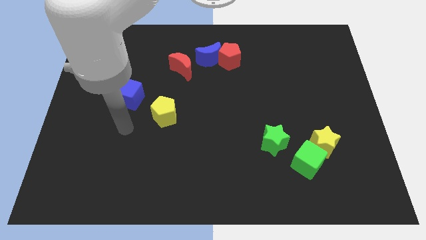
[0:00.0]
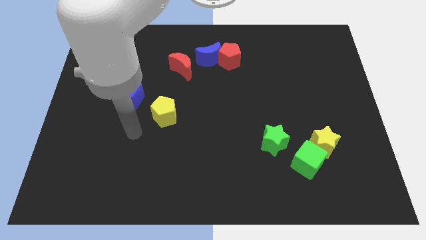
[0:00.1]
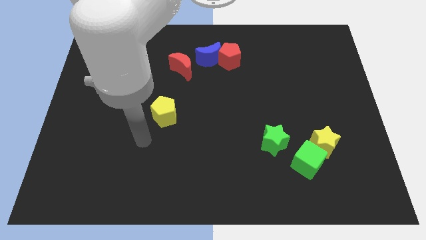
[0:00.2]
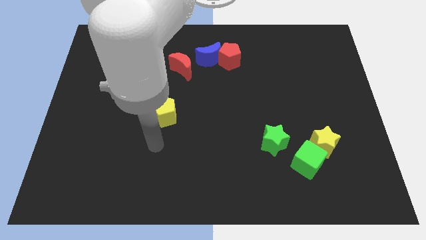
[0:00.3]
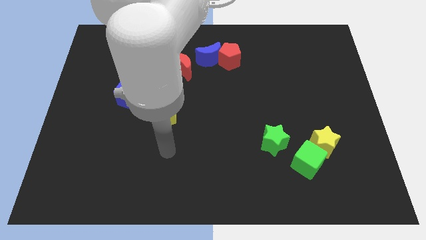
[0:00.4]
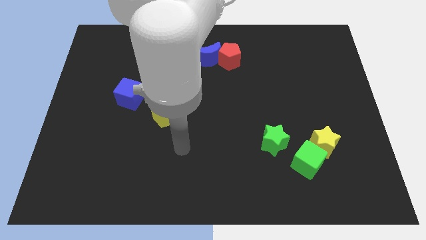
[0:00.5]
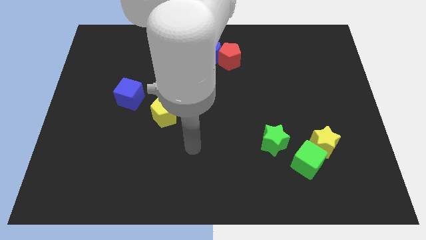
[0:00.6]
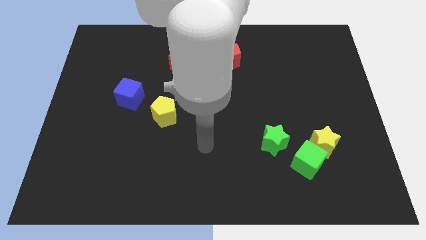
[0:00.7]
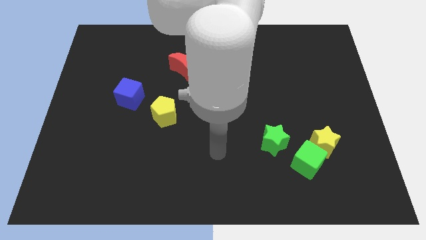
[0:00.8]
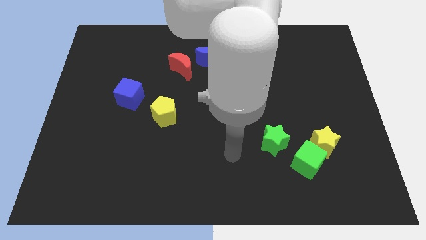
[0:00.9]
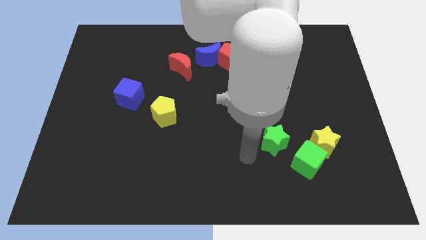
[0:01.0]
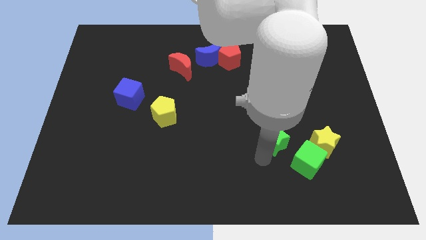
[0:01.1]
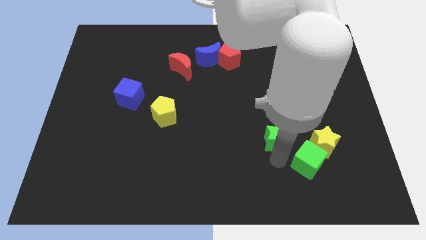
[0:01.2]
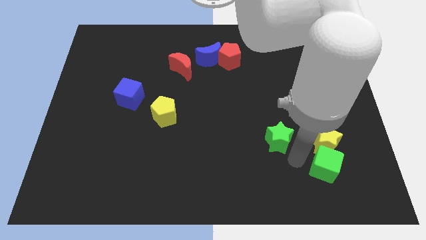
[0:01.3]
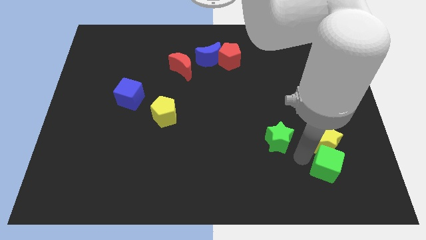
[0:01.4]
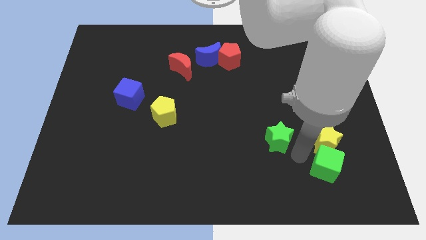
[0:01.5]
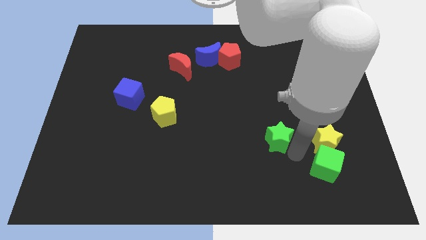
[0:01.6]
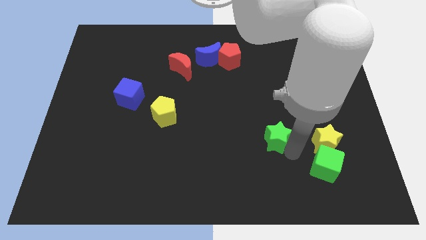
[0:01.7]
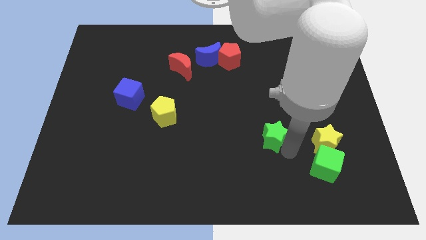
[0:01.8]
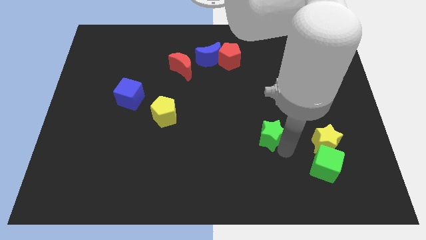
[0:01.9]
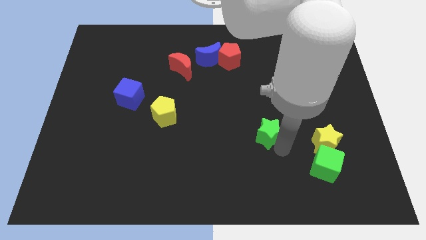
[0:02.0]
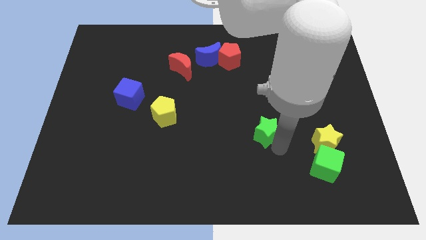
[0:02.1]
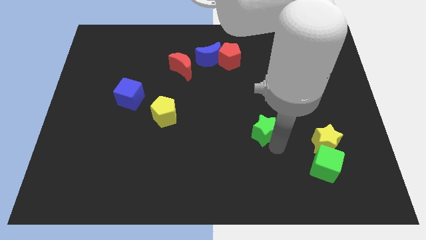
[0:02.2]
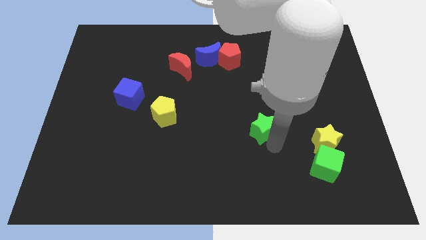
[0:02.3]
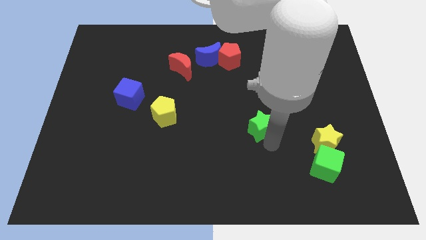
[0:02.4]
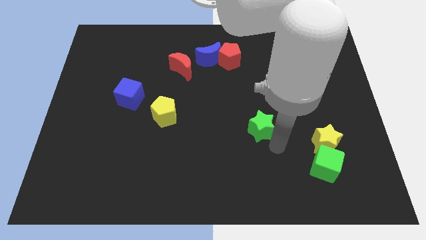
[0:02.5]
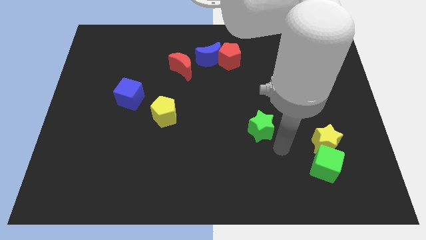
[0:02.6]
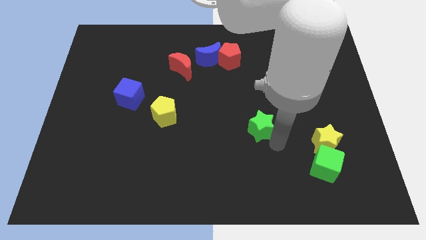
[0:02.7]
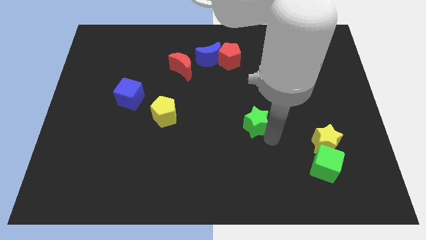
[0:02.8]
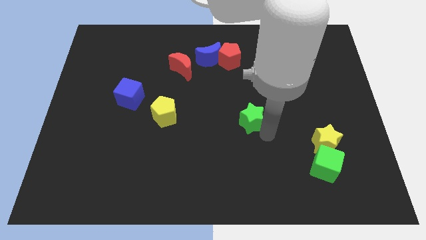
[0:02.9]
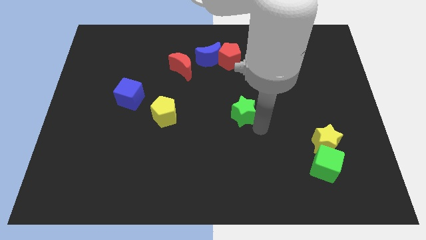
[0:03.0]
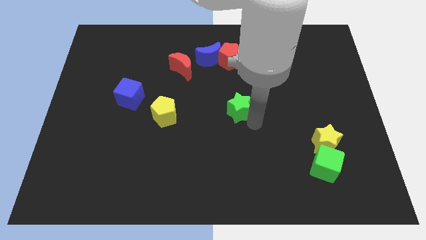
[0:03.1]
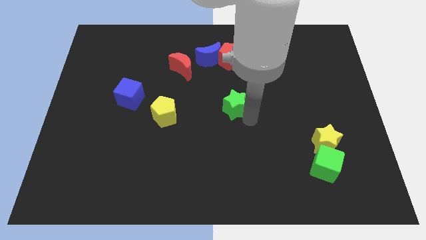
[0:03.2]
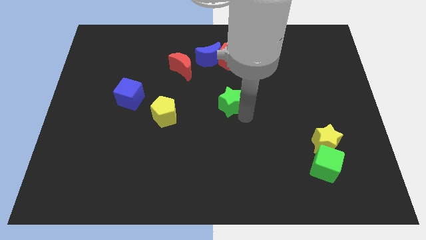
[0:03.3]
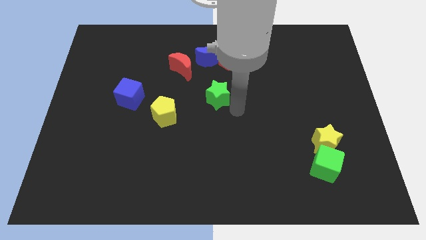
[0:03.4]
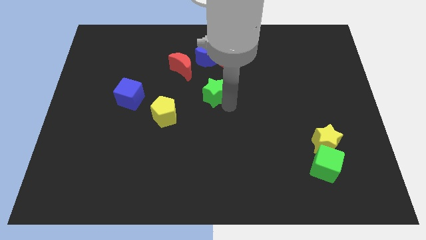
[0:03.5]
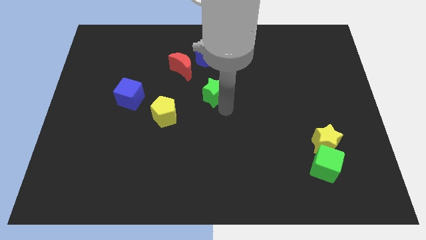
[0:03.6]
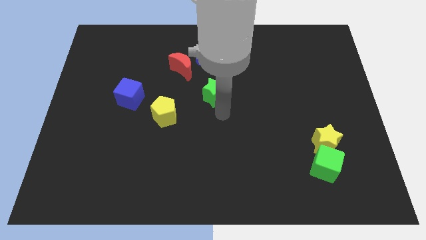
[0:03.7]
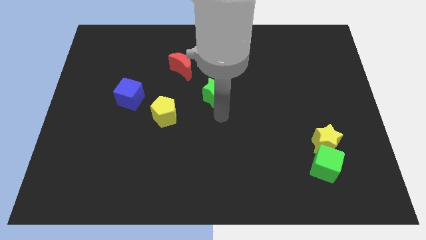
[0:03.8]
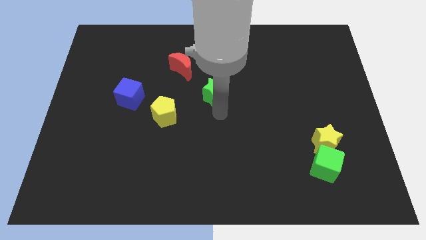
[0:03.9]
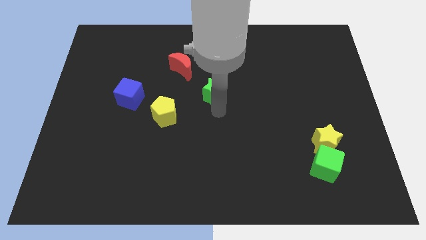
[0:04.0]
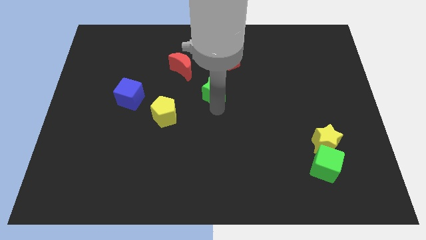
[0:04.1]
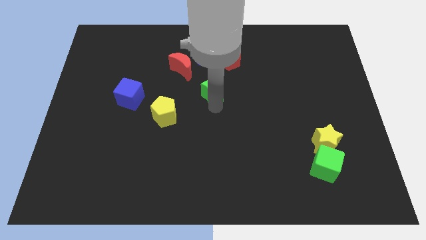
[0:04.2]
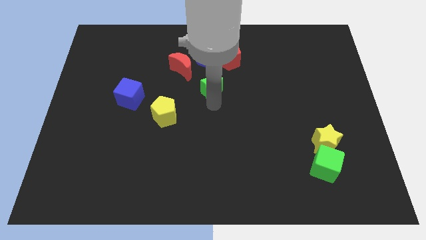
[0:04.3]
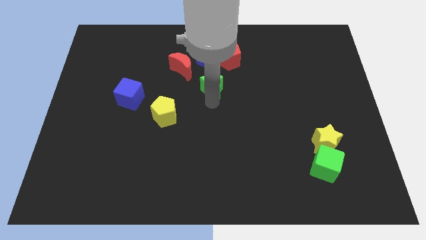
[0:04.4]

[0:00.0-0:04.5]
slide the green star to the bottom left of the red pentagon

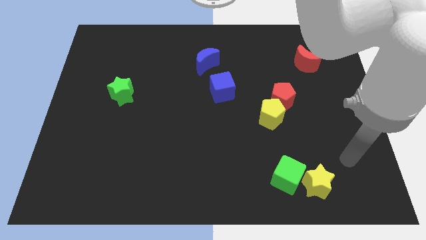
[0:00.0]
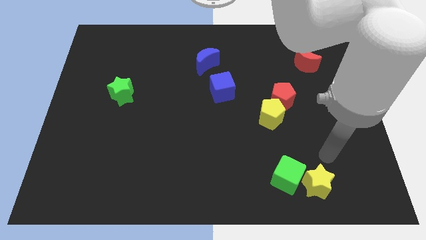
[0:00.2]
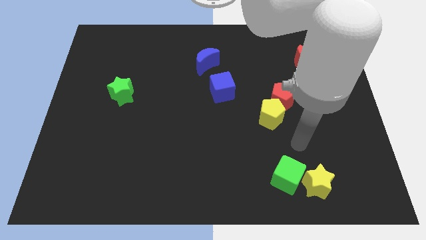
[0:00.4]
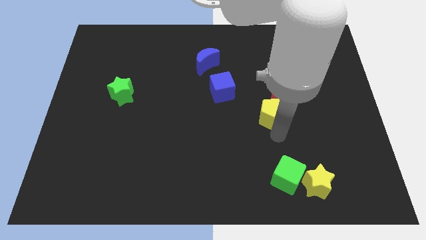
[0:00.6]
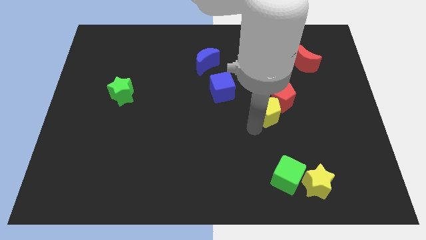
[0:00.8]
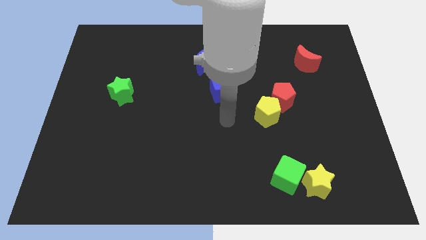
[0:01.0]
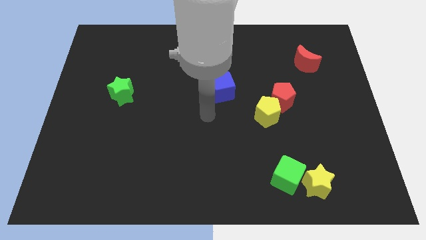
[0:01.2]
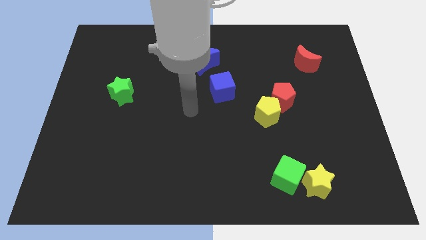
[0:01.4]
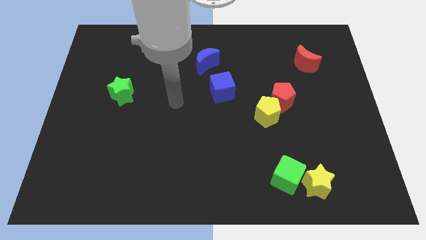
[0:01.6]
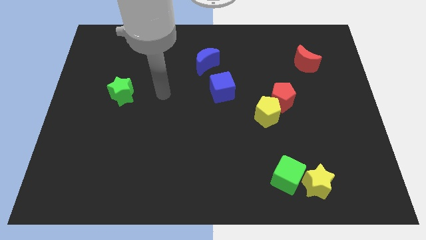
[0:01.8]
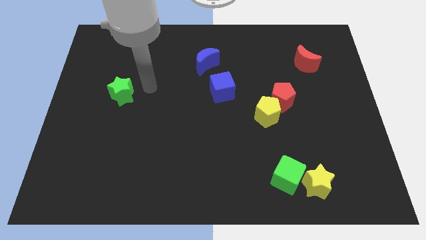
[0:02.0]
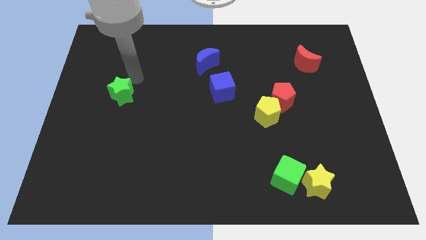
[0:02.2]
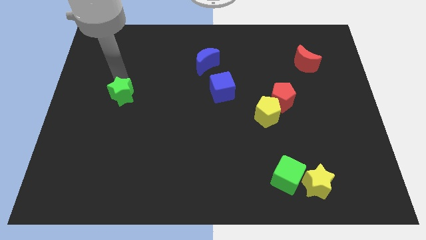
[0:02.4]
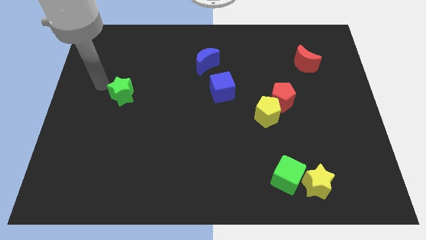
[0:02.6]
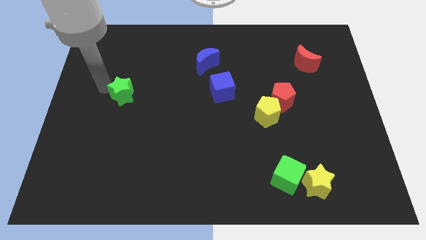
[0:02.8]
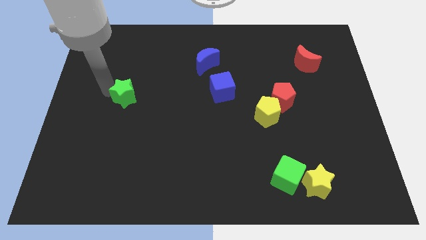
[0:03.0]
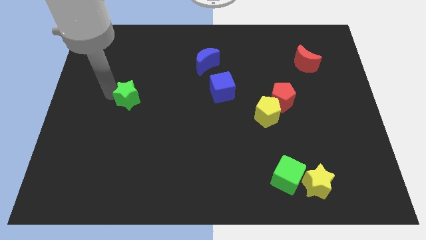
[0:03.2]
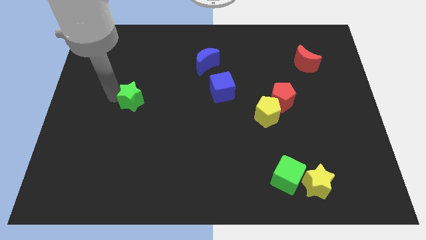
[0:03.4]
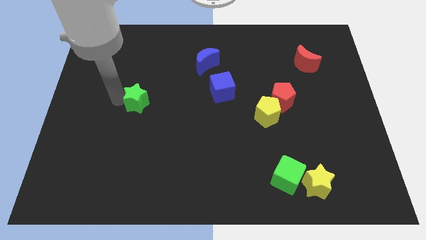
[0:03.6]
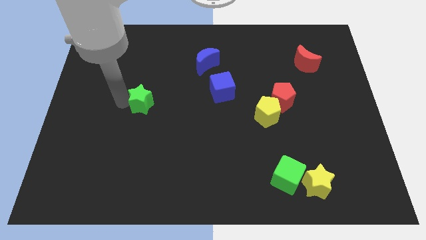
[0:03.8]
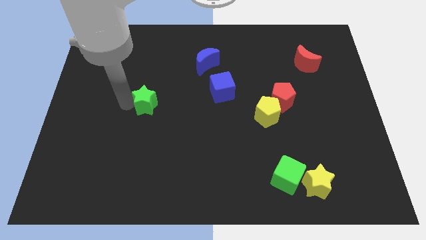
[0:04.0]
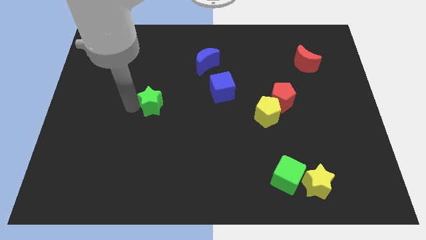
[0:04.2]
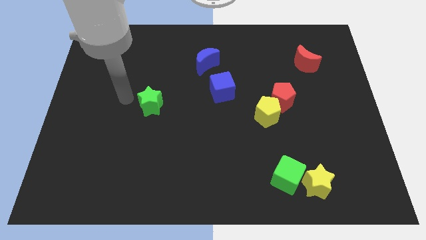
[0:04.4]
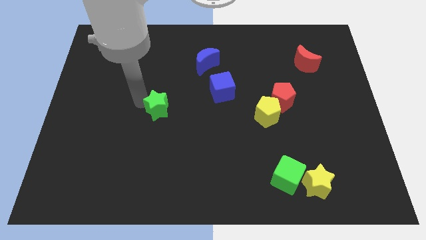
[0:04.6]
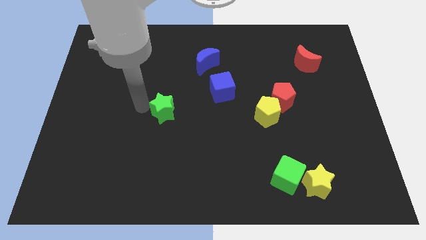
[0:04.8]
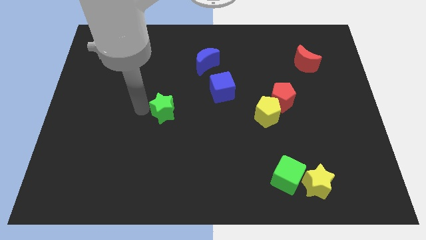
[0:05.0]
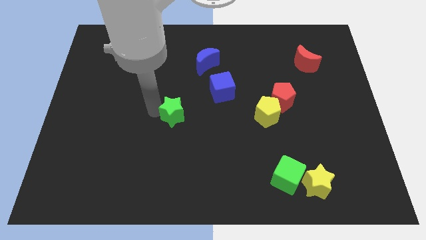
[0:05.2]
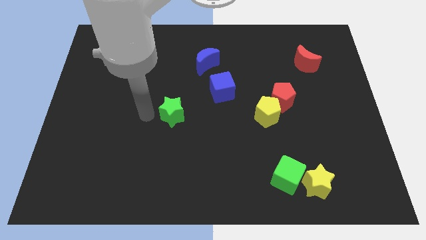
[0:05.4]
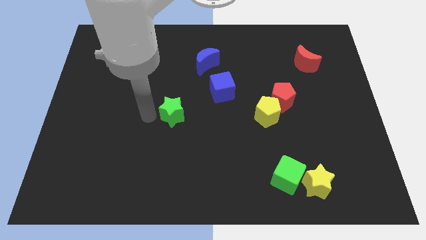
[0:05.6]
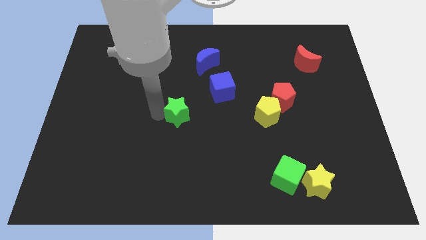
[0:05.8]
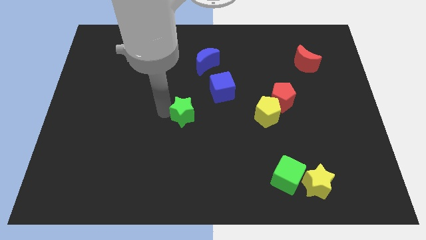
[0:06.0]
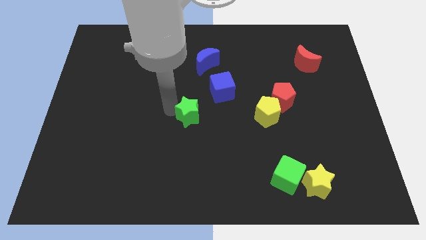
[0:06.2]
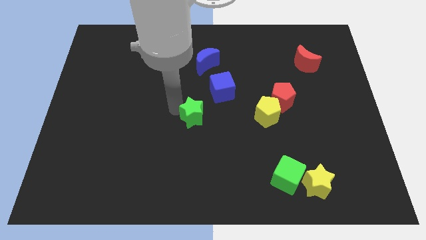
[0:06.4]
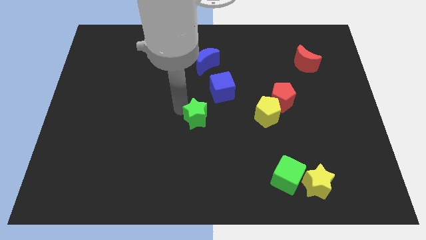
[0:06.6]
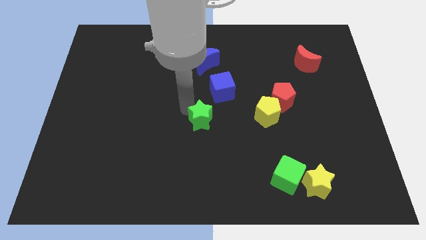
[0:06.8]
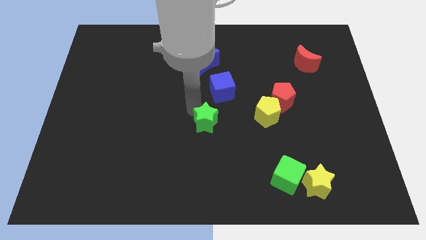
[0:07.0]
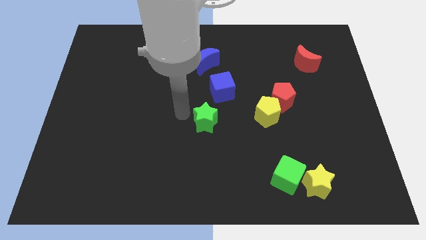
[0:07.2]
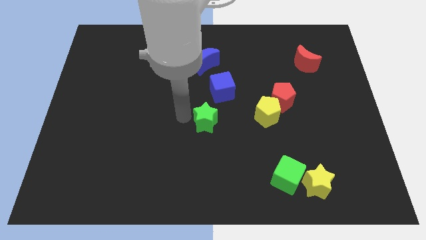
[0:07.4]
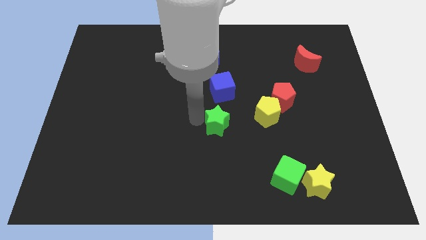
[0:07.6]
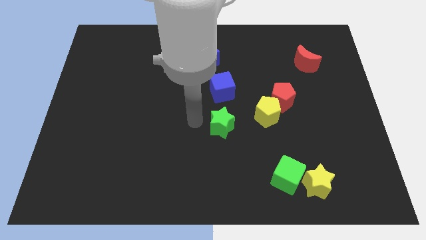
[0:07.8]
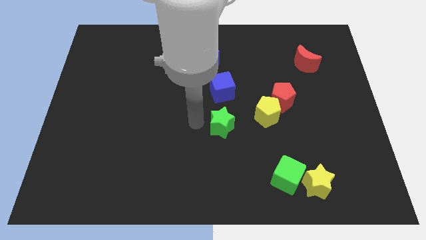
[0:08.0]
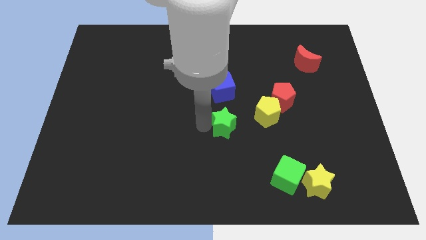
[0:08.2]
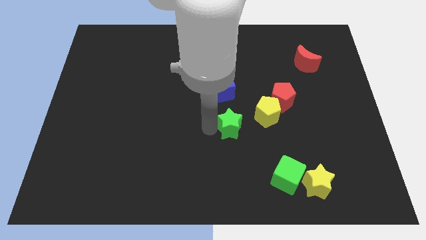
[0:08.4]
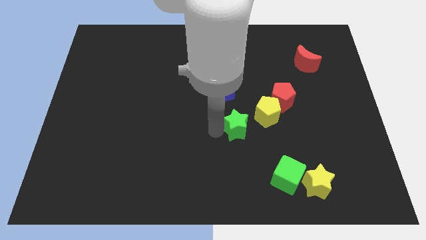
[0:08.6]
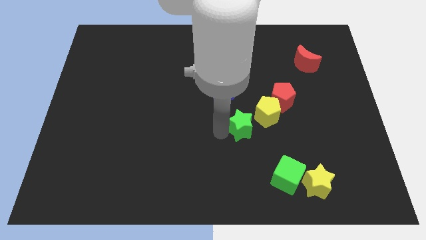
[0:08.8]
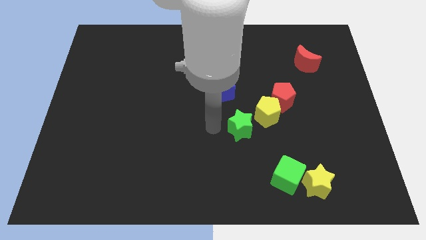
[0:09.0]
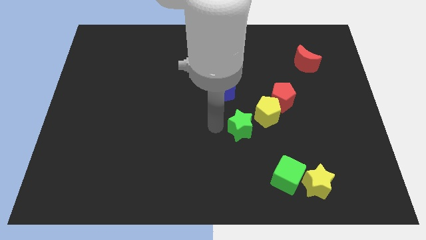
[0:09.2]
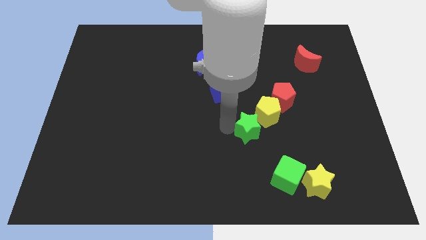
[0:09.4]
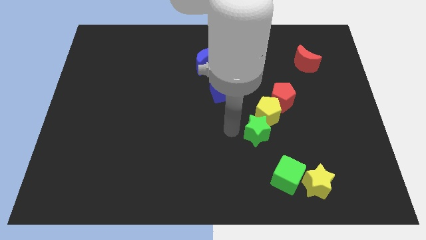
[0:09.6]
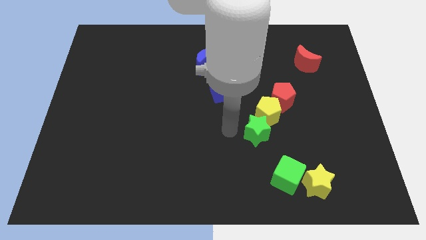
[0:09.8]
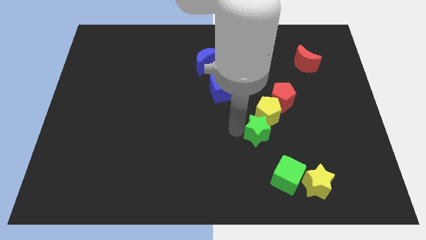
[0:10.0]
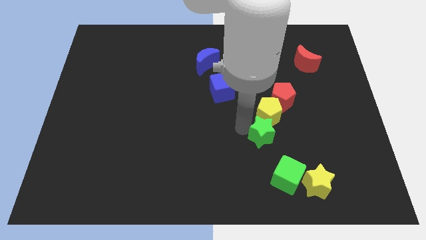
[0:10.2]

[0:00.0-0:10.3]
push the green star to the top of the green cube
